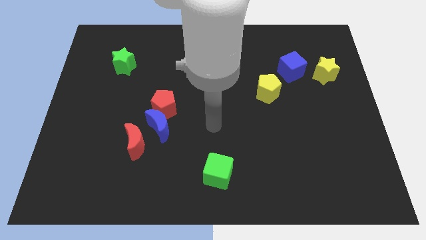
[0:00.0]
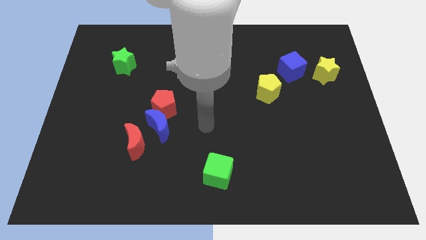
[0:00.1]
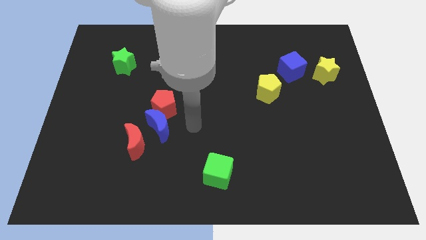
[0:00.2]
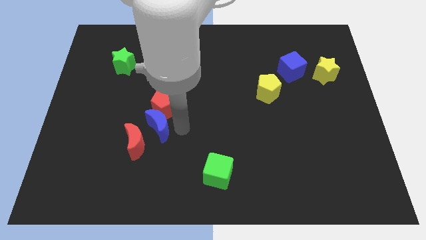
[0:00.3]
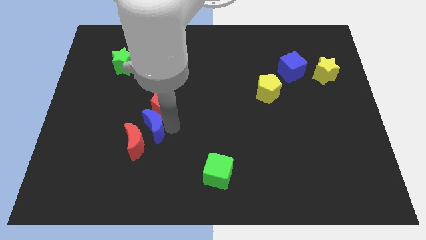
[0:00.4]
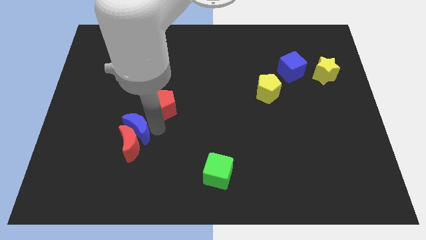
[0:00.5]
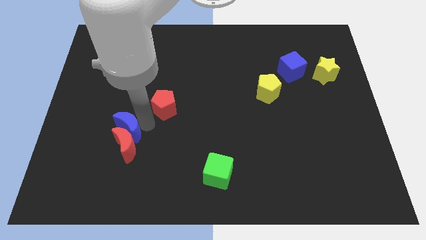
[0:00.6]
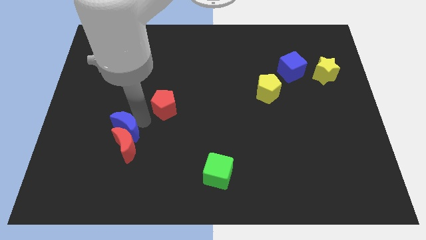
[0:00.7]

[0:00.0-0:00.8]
move the red pentagon away from the blue moon

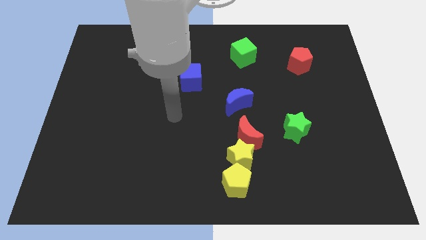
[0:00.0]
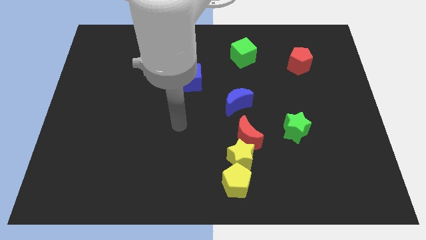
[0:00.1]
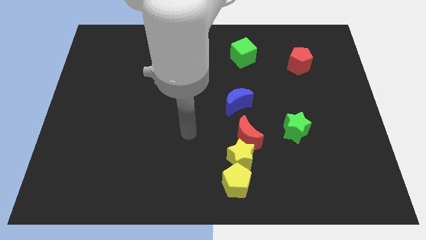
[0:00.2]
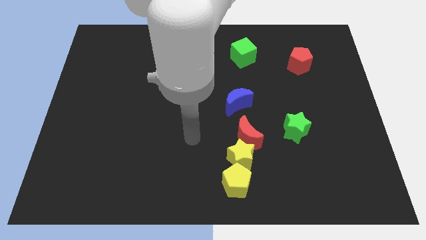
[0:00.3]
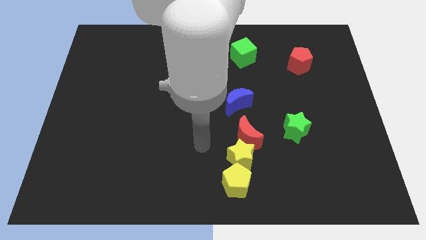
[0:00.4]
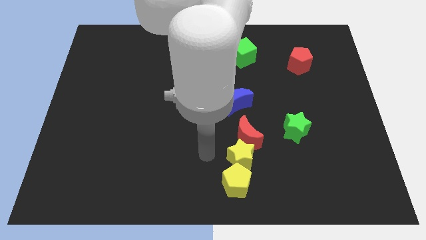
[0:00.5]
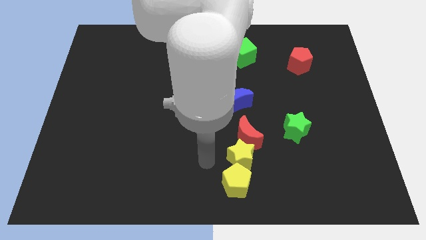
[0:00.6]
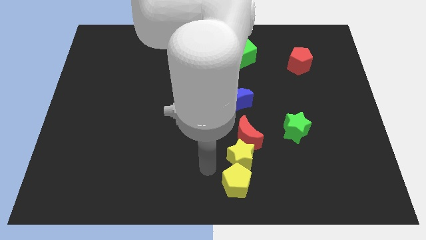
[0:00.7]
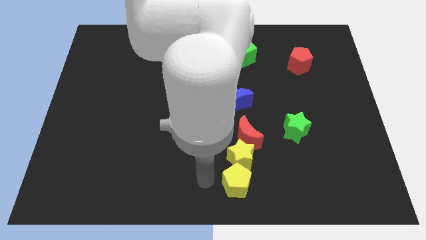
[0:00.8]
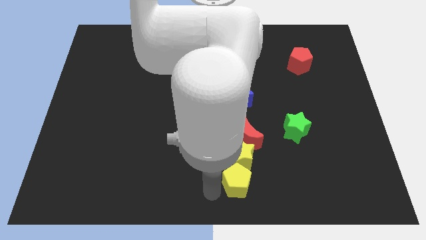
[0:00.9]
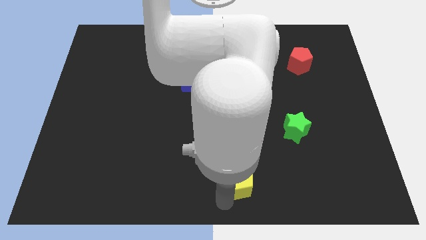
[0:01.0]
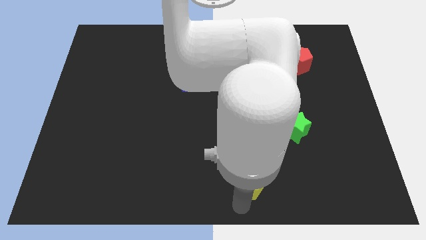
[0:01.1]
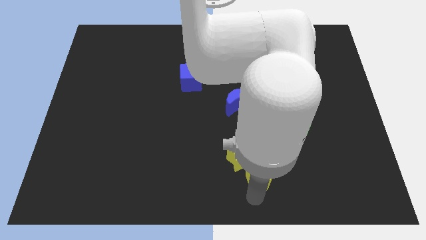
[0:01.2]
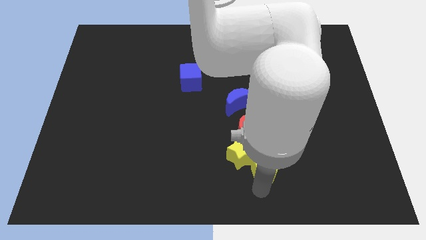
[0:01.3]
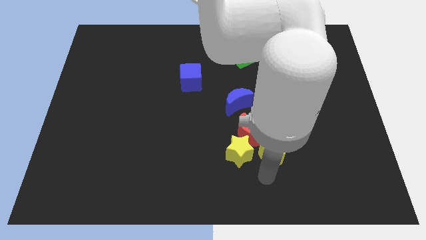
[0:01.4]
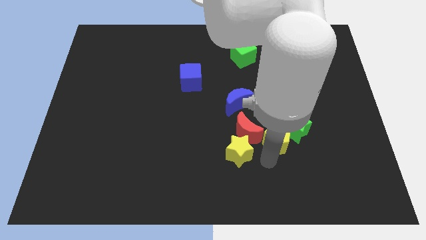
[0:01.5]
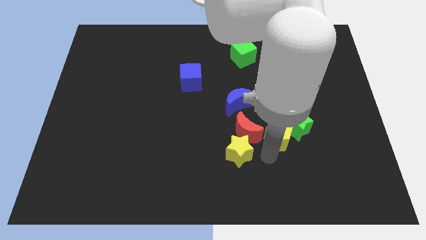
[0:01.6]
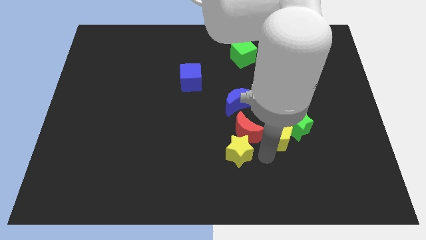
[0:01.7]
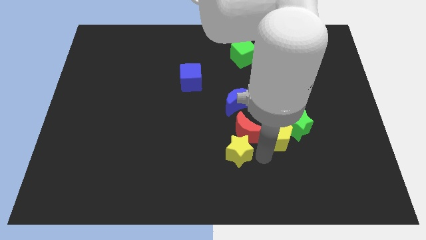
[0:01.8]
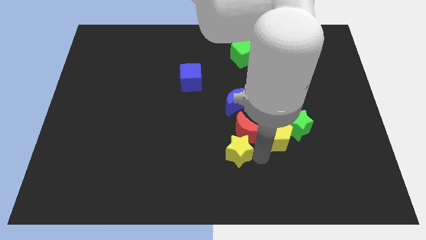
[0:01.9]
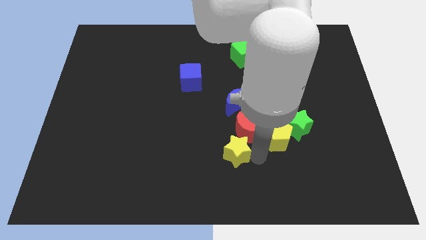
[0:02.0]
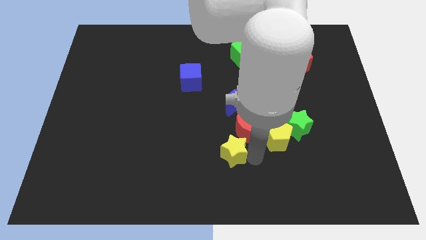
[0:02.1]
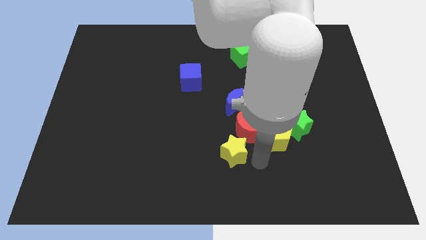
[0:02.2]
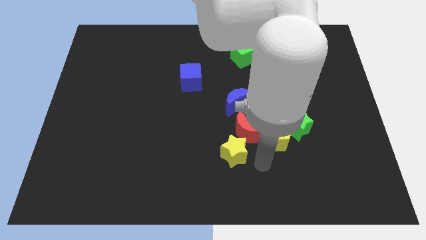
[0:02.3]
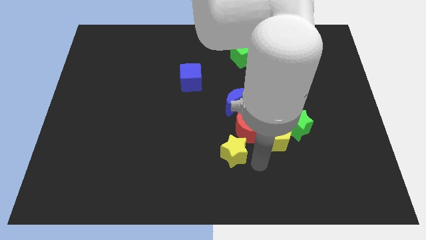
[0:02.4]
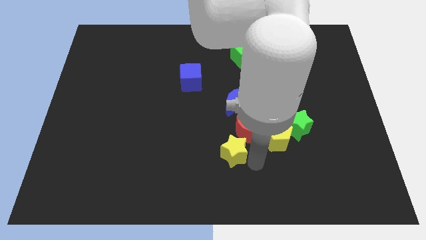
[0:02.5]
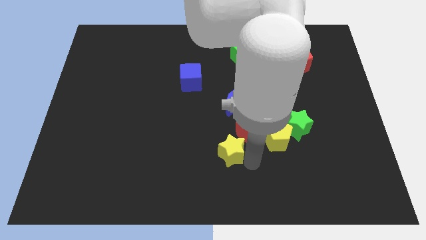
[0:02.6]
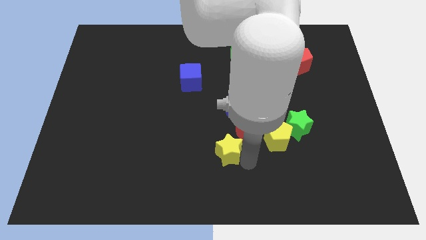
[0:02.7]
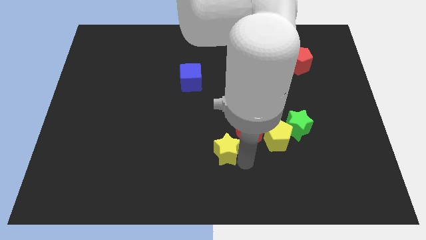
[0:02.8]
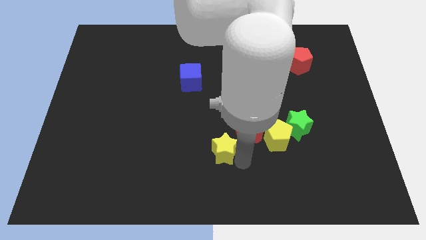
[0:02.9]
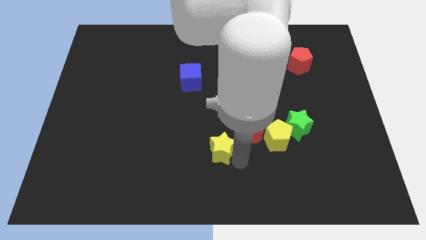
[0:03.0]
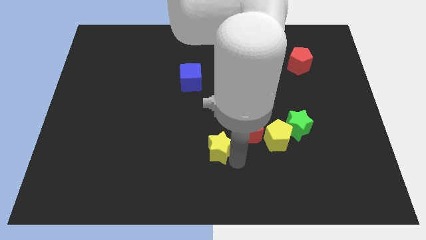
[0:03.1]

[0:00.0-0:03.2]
move the yellow star away from the red moon and yellow pentagon

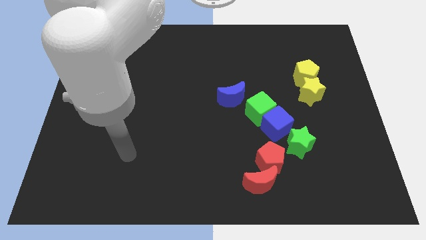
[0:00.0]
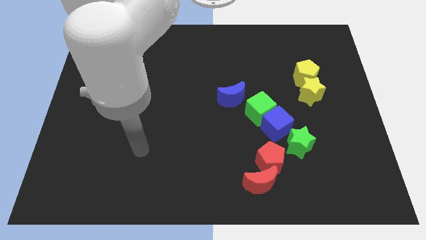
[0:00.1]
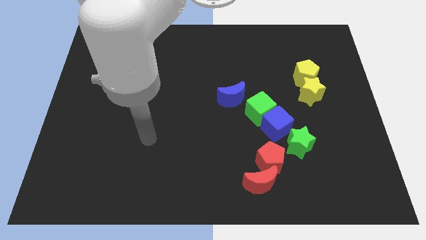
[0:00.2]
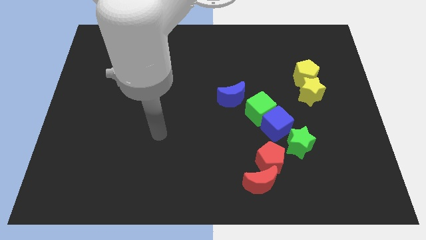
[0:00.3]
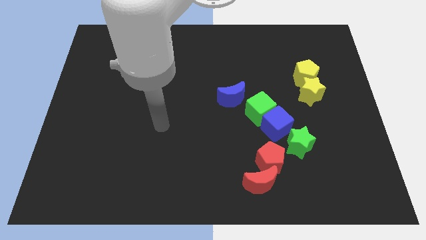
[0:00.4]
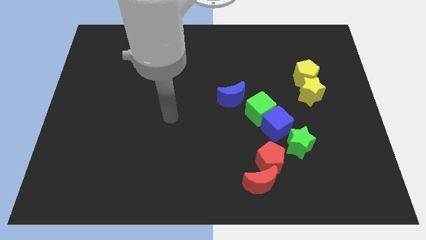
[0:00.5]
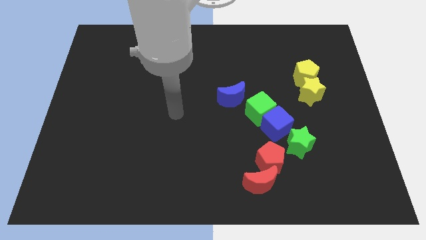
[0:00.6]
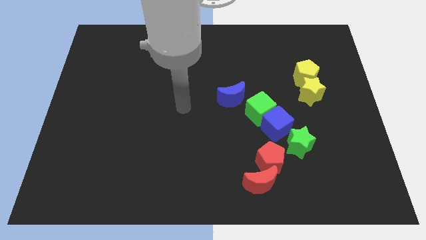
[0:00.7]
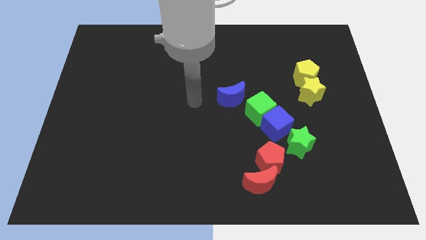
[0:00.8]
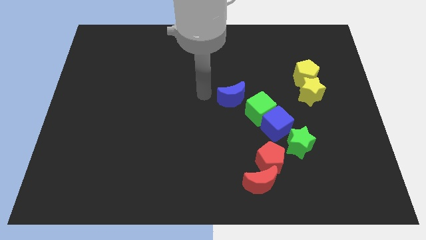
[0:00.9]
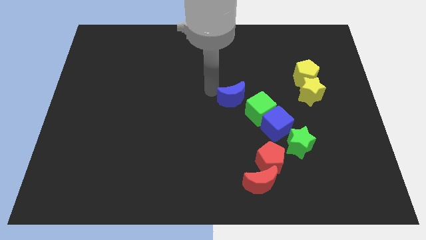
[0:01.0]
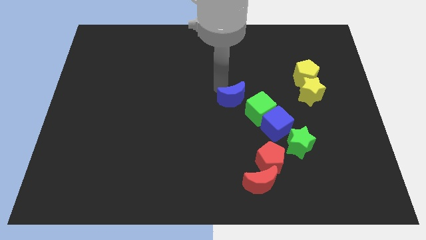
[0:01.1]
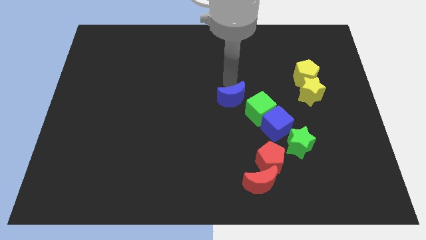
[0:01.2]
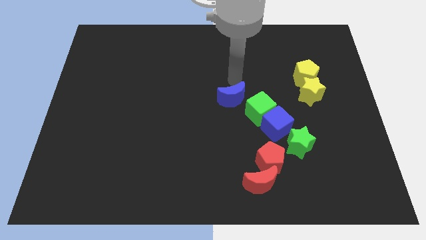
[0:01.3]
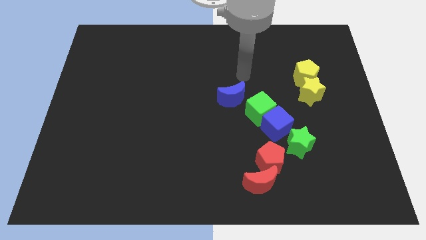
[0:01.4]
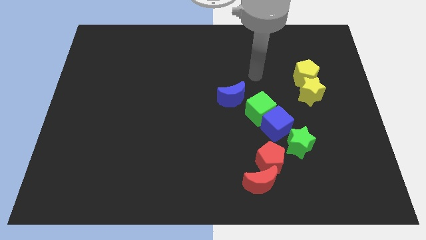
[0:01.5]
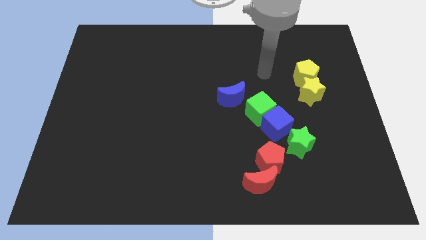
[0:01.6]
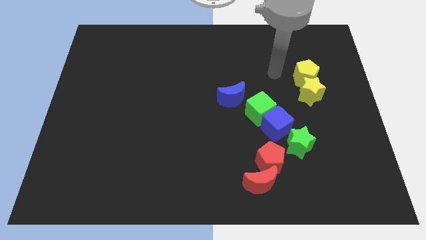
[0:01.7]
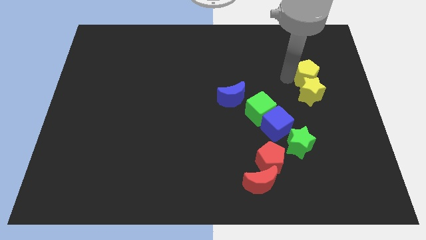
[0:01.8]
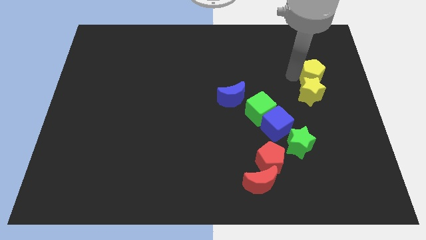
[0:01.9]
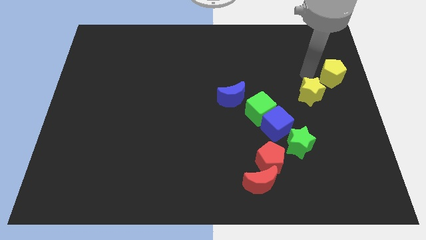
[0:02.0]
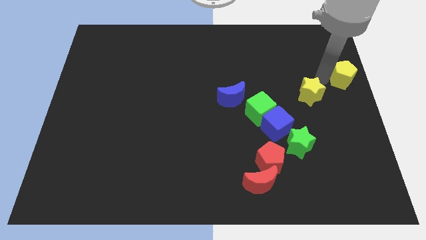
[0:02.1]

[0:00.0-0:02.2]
pull the yellow star apart from the yellow pentagon

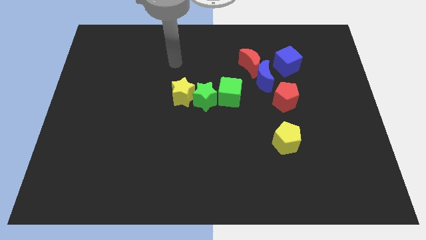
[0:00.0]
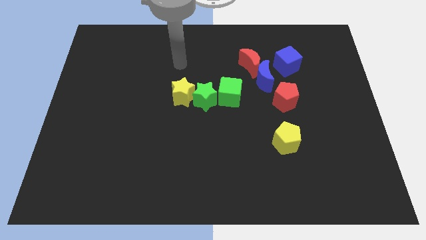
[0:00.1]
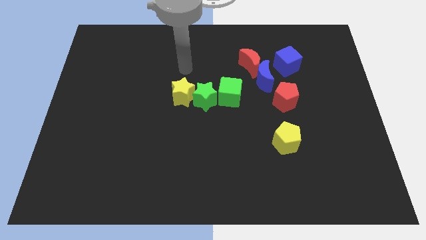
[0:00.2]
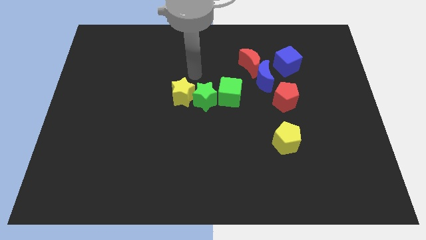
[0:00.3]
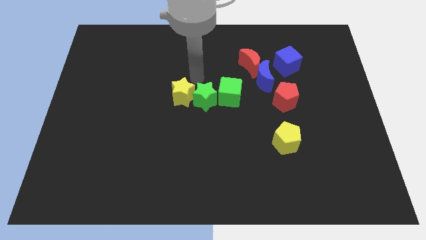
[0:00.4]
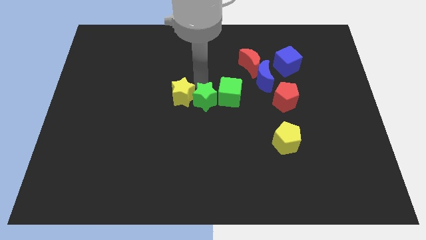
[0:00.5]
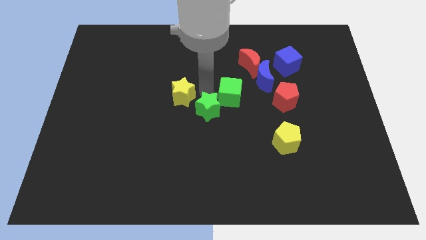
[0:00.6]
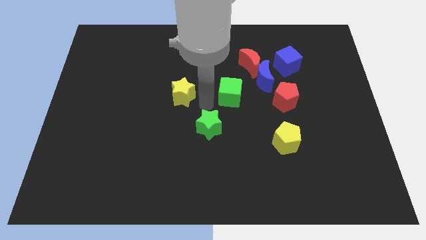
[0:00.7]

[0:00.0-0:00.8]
pull the yellow star apart from the green star

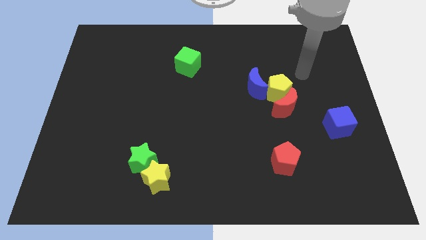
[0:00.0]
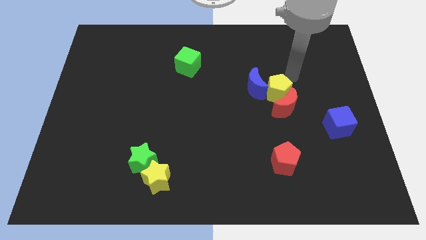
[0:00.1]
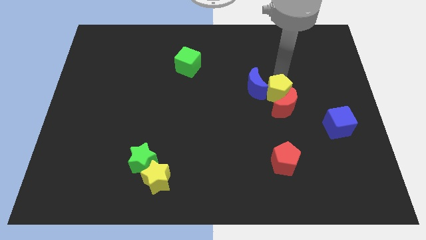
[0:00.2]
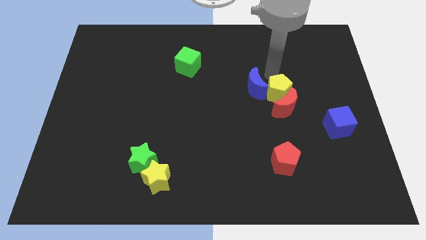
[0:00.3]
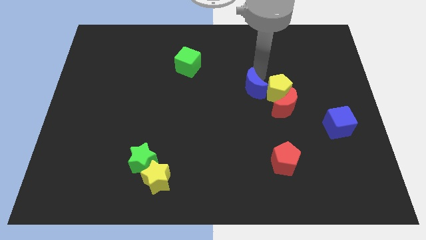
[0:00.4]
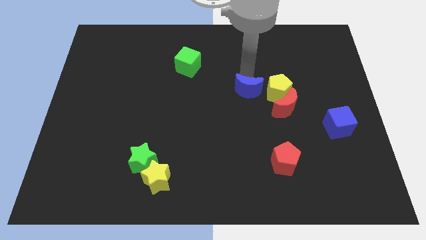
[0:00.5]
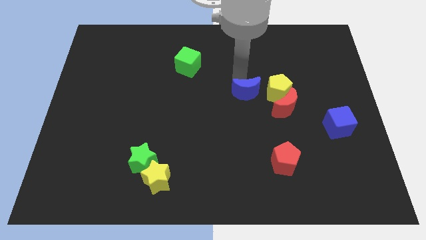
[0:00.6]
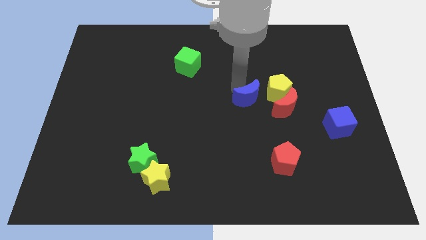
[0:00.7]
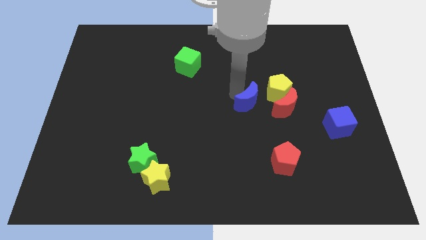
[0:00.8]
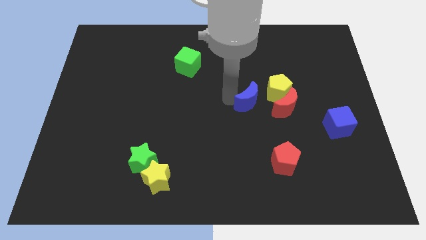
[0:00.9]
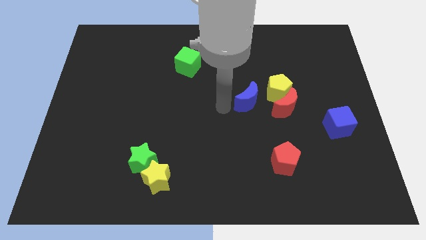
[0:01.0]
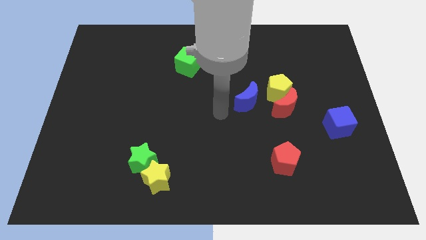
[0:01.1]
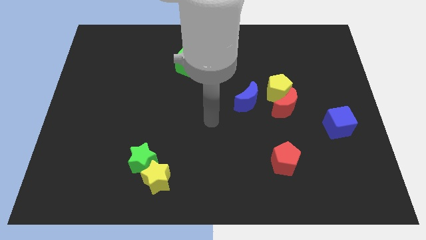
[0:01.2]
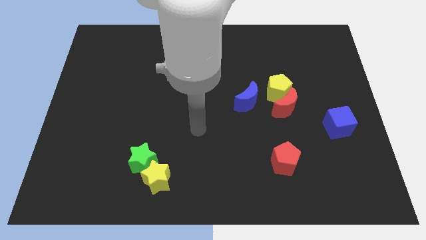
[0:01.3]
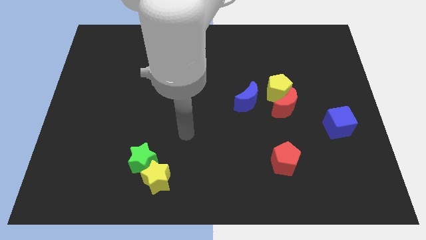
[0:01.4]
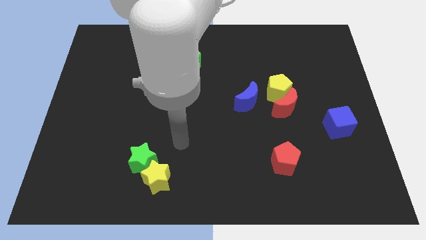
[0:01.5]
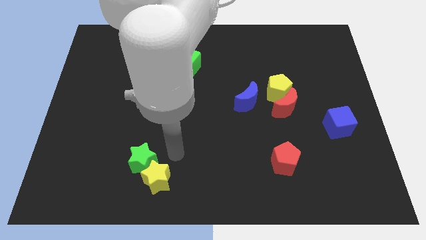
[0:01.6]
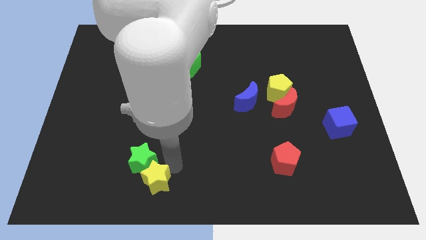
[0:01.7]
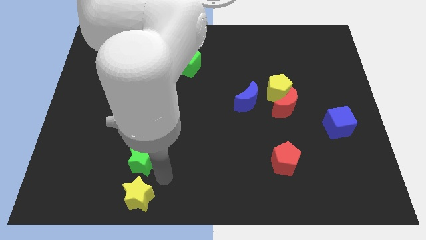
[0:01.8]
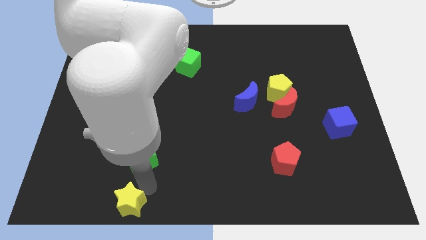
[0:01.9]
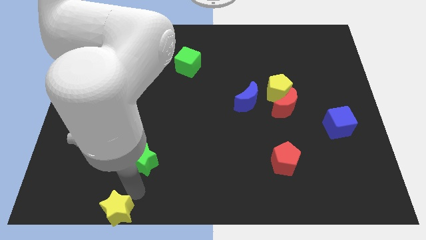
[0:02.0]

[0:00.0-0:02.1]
separate the green star from the yellow star

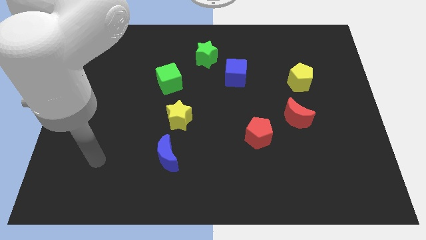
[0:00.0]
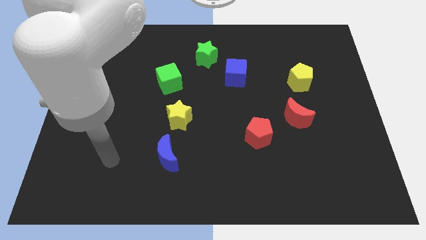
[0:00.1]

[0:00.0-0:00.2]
separate the red moon from the red pentagon

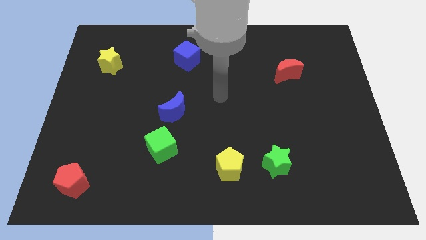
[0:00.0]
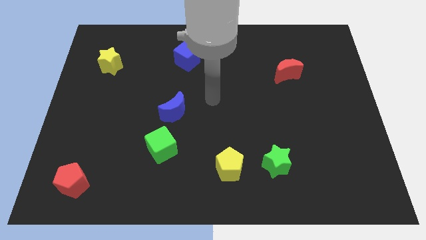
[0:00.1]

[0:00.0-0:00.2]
move the blue moon away from the green cube
